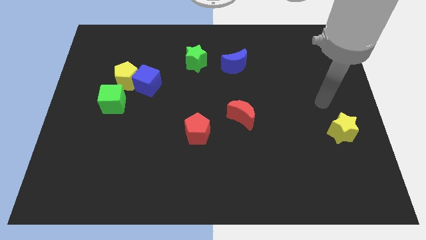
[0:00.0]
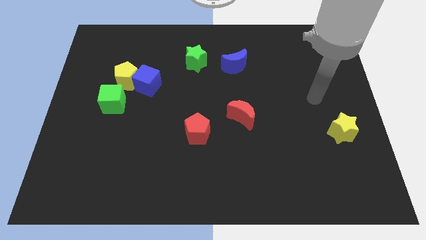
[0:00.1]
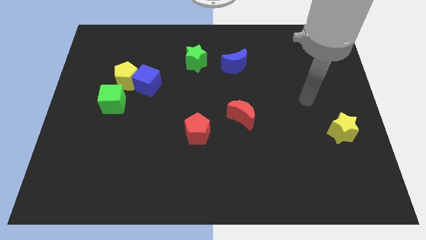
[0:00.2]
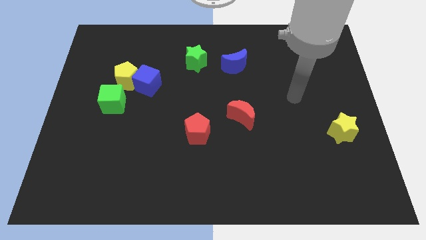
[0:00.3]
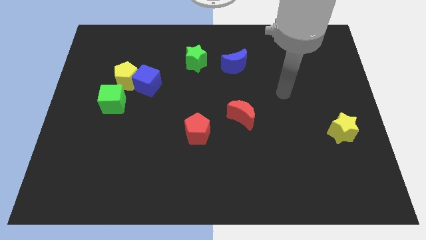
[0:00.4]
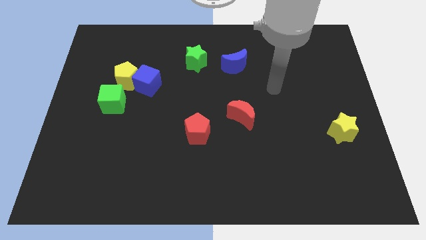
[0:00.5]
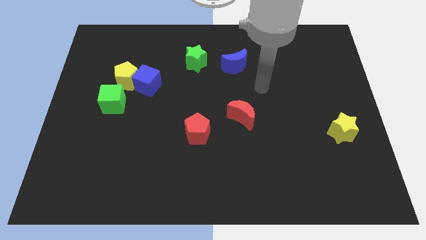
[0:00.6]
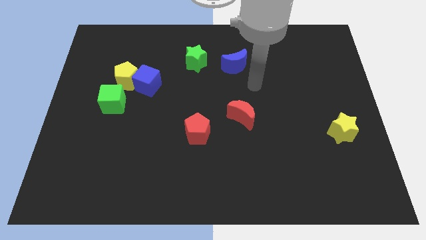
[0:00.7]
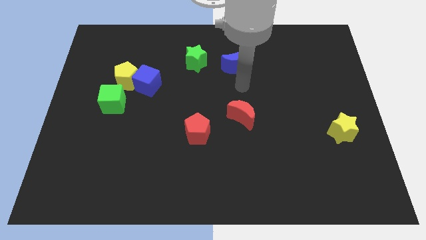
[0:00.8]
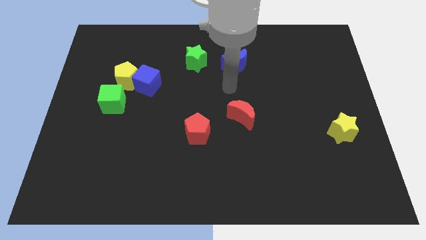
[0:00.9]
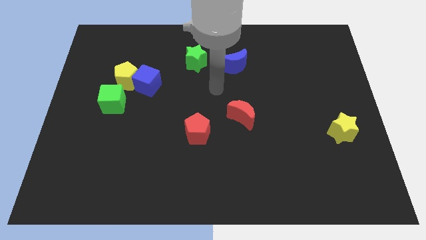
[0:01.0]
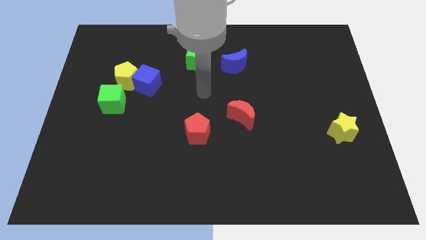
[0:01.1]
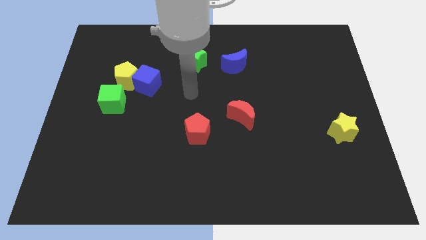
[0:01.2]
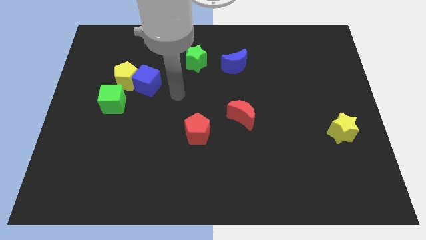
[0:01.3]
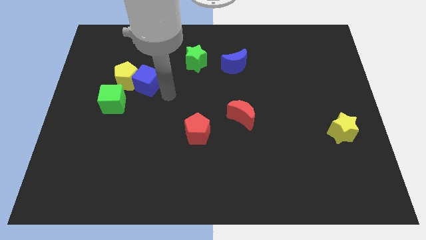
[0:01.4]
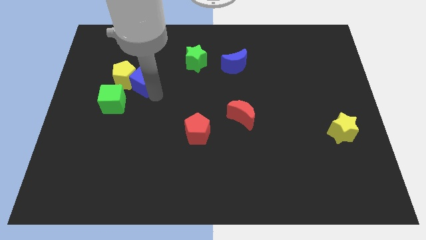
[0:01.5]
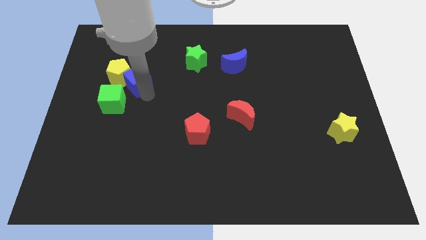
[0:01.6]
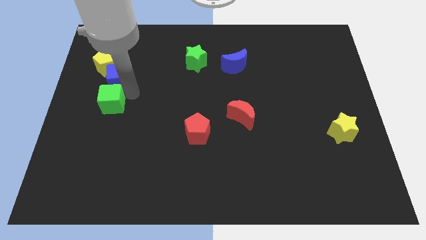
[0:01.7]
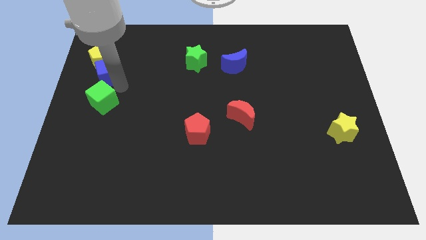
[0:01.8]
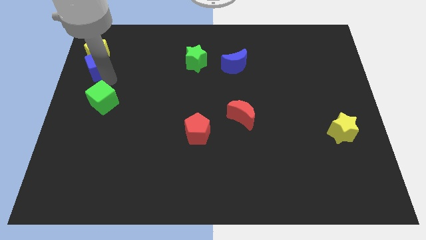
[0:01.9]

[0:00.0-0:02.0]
move the yellow pentagon away from the blue cube and green cube

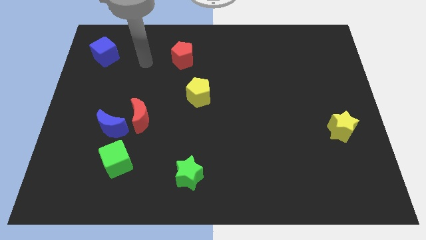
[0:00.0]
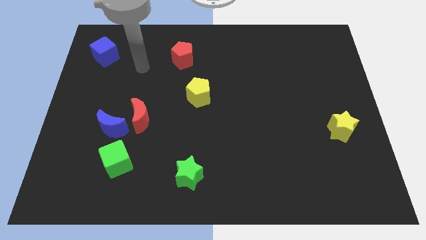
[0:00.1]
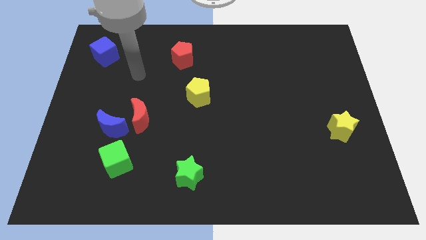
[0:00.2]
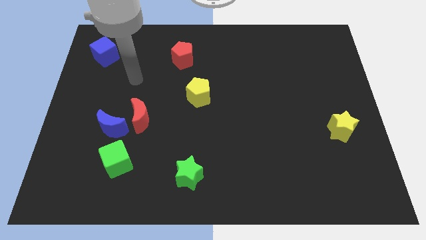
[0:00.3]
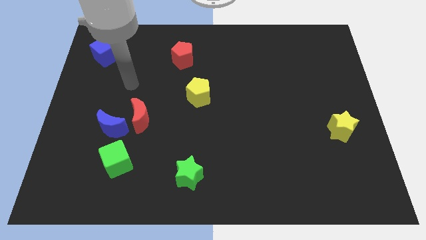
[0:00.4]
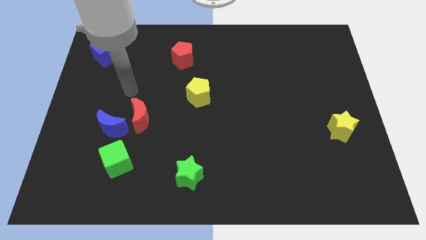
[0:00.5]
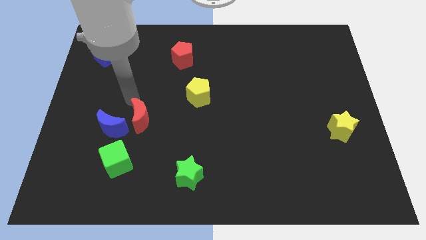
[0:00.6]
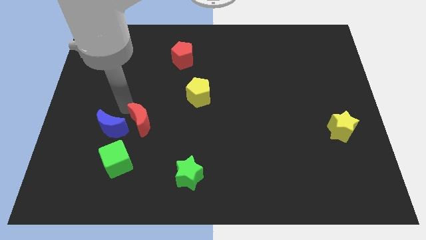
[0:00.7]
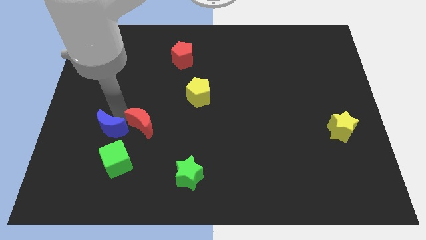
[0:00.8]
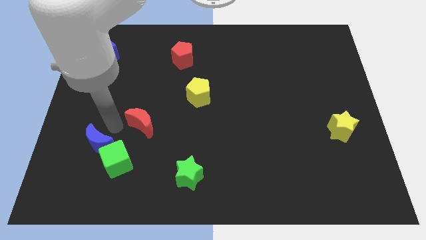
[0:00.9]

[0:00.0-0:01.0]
separate the red moon from the blue moon

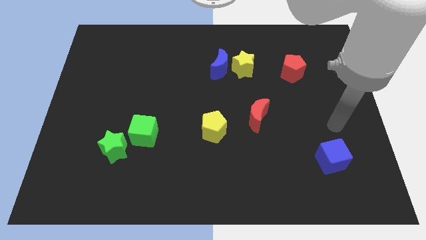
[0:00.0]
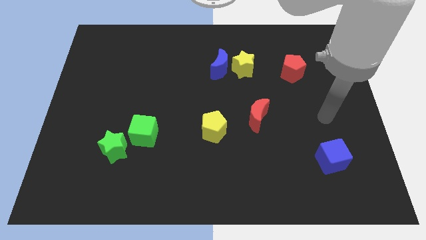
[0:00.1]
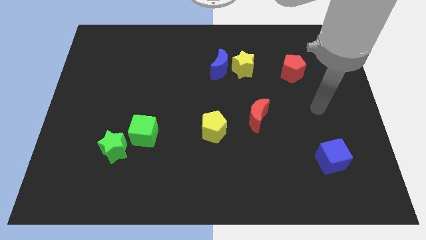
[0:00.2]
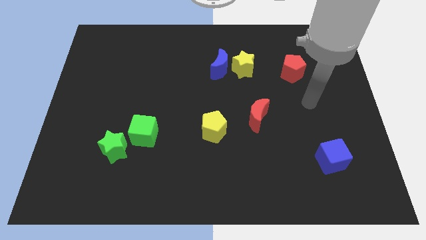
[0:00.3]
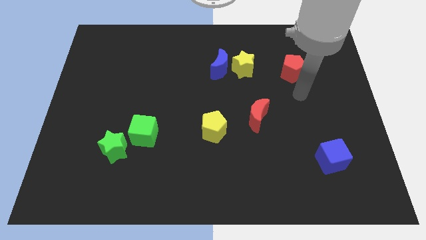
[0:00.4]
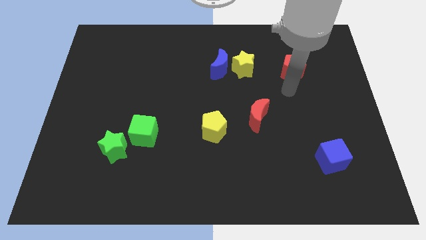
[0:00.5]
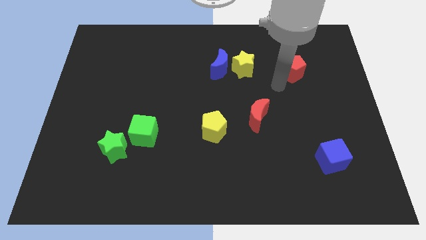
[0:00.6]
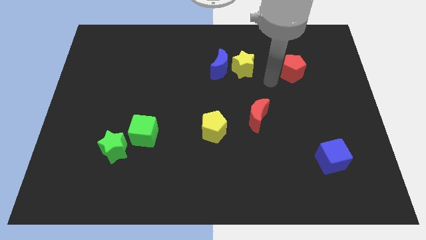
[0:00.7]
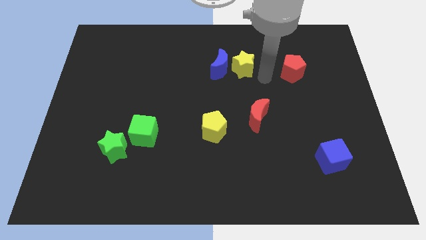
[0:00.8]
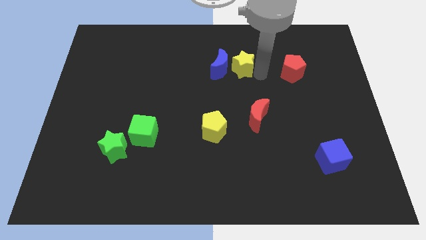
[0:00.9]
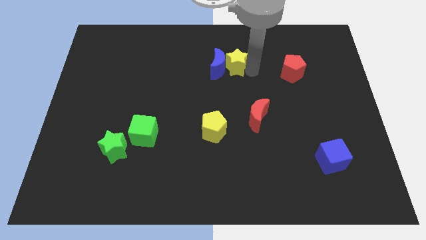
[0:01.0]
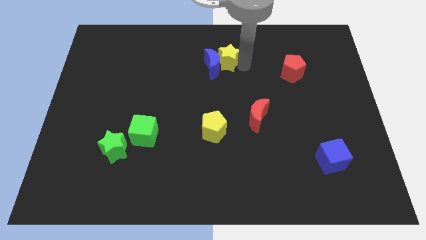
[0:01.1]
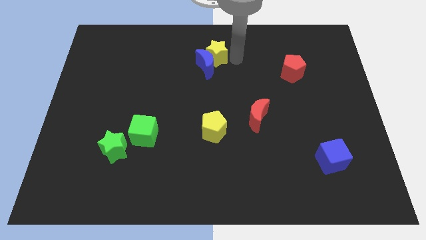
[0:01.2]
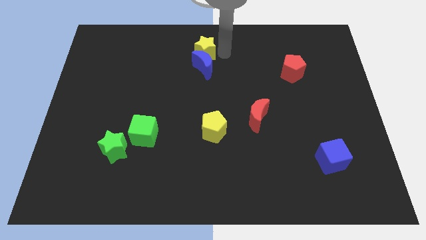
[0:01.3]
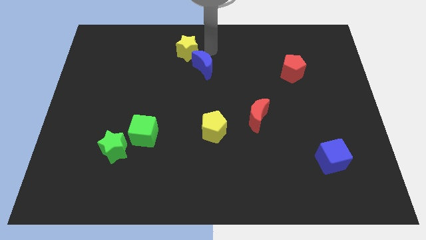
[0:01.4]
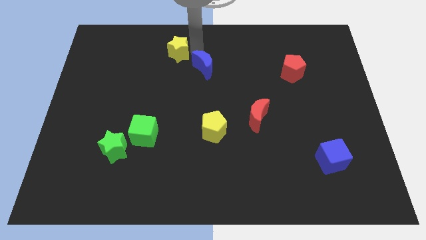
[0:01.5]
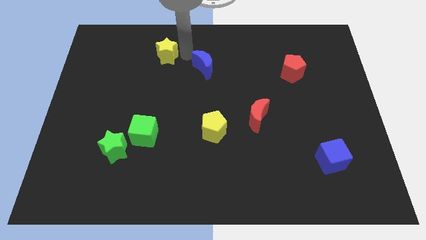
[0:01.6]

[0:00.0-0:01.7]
move the blue moon away from the yellow star

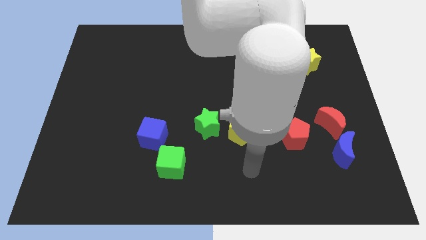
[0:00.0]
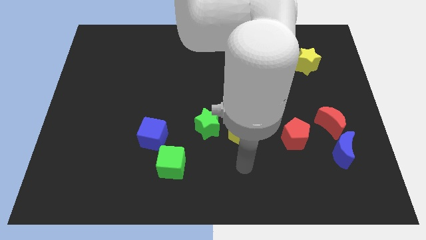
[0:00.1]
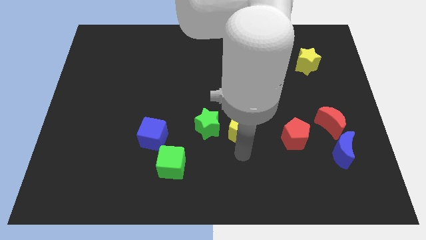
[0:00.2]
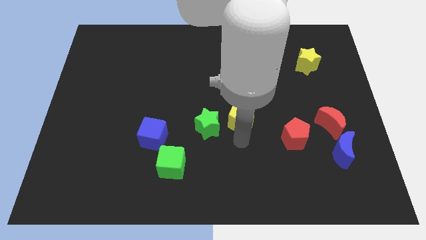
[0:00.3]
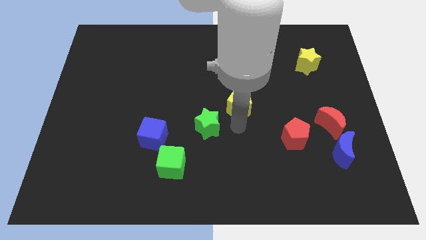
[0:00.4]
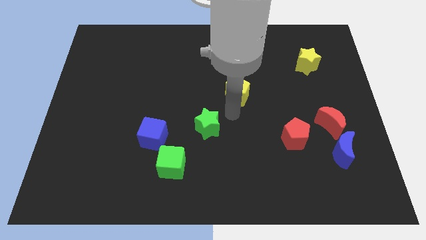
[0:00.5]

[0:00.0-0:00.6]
pull the green star apart from the yellow pentagon

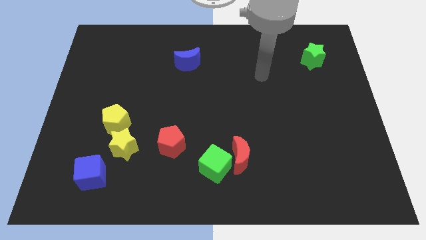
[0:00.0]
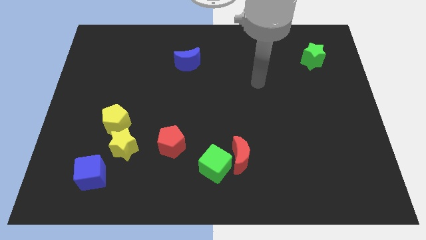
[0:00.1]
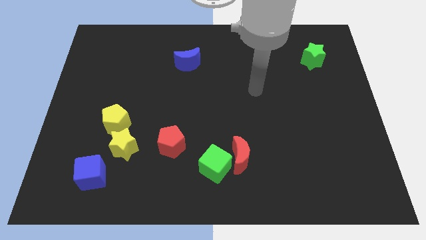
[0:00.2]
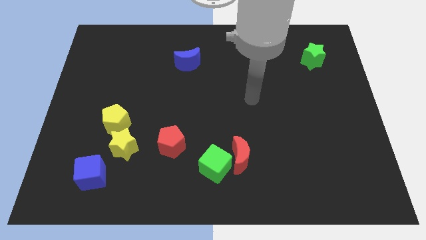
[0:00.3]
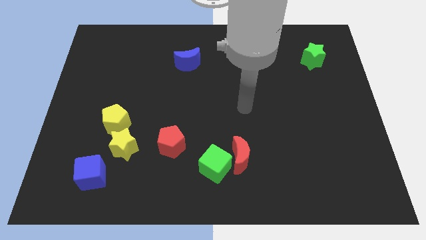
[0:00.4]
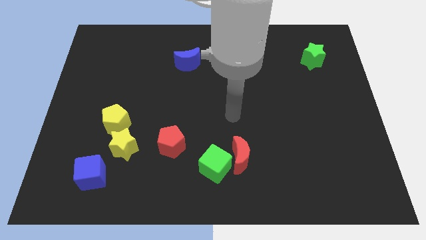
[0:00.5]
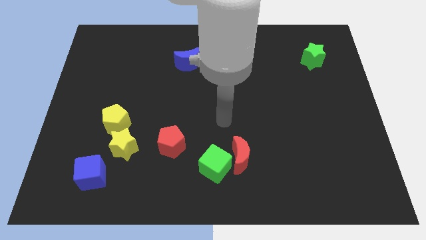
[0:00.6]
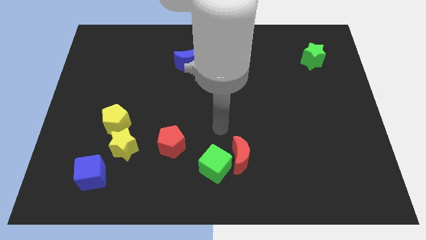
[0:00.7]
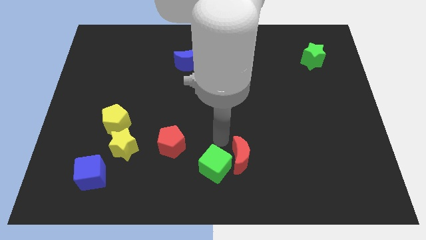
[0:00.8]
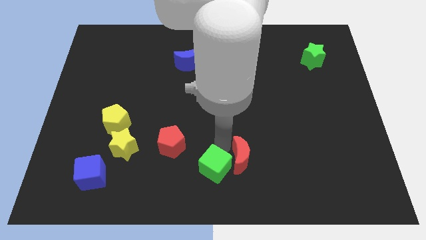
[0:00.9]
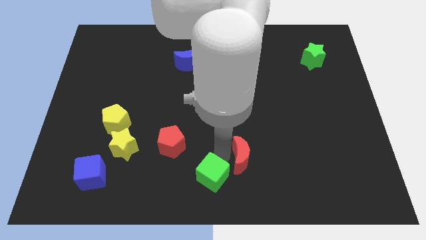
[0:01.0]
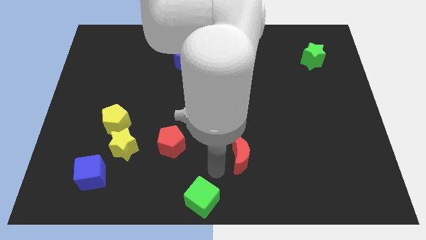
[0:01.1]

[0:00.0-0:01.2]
pull the red moon apart from the green cube

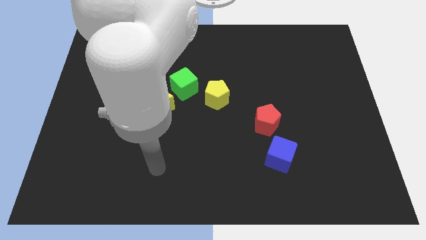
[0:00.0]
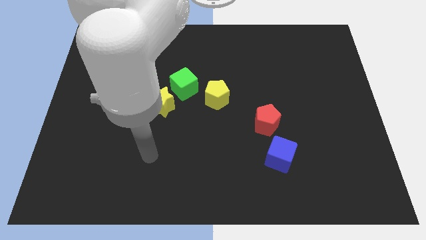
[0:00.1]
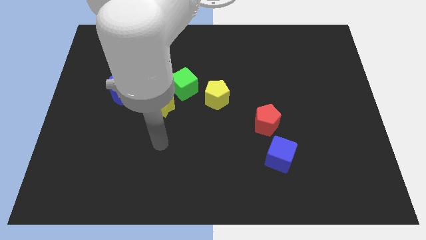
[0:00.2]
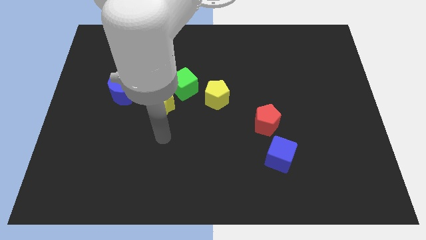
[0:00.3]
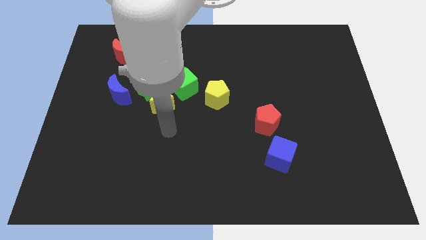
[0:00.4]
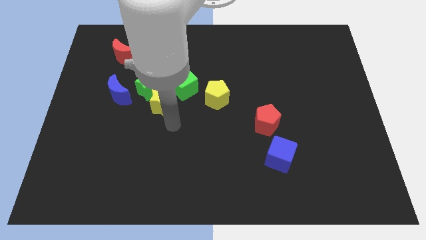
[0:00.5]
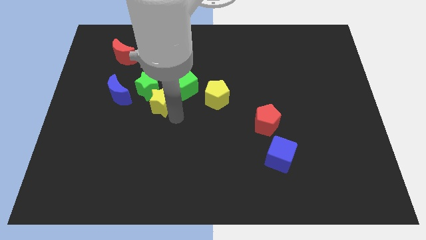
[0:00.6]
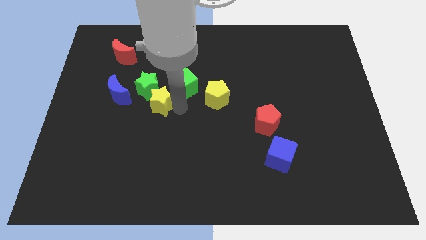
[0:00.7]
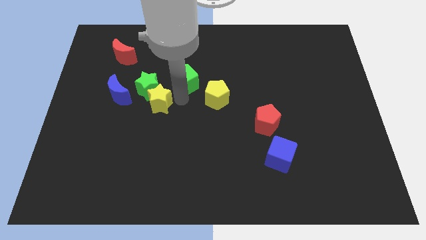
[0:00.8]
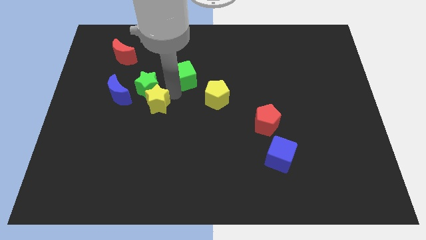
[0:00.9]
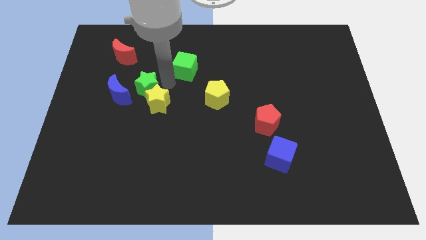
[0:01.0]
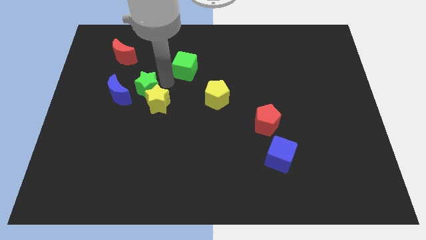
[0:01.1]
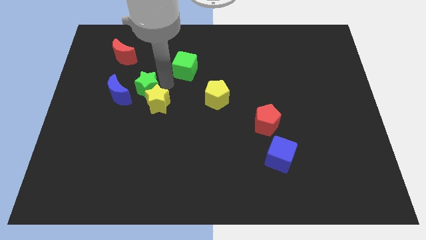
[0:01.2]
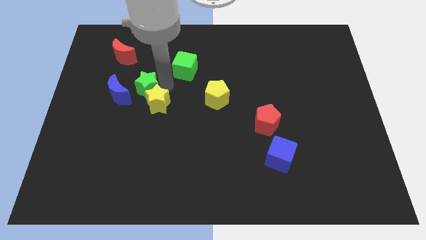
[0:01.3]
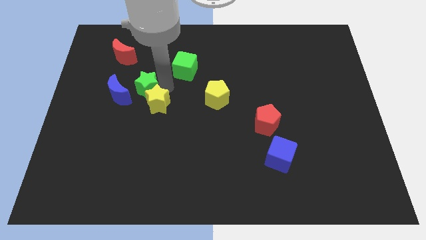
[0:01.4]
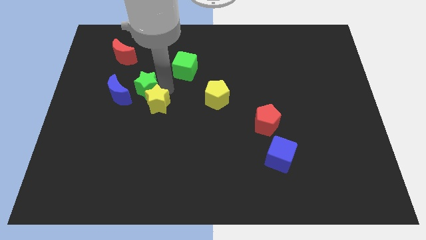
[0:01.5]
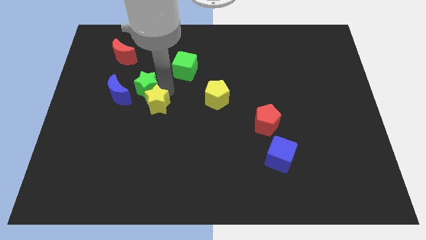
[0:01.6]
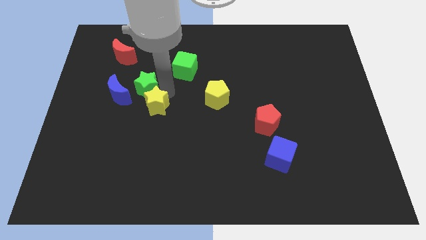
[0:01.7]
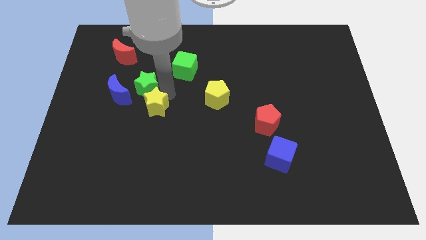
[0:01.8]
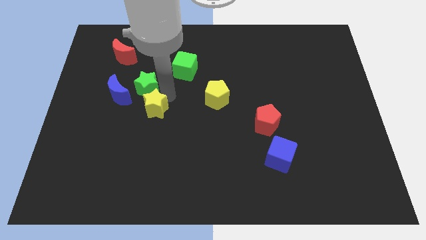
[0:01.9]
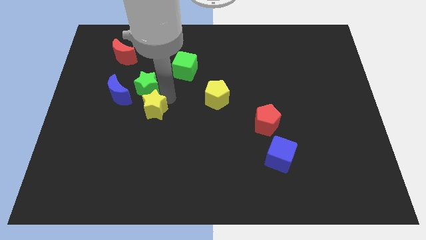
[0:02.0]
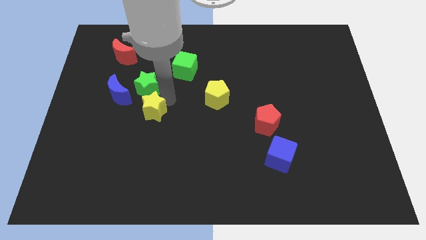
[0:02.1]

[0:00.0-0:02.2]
move the yellow star away from the green star and green cube

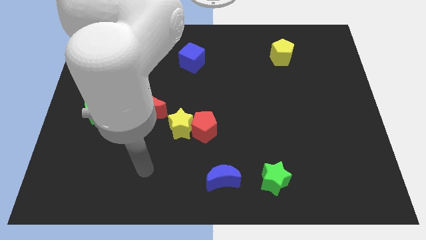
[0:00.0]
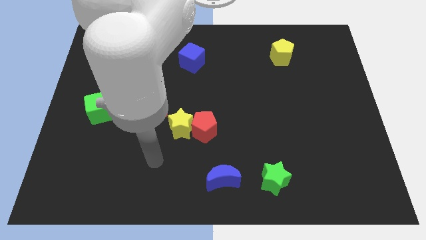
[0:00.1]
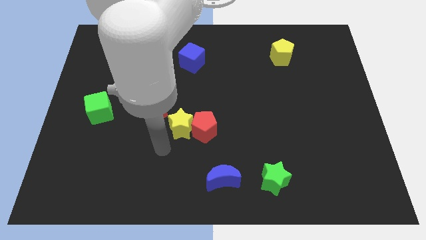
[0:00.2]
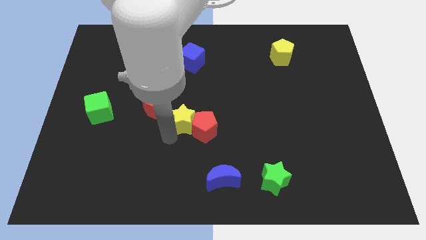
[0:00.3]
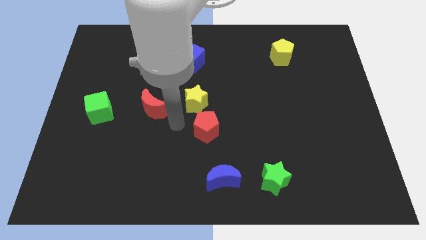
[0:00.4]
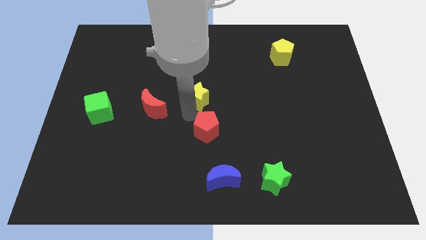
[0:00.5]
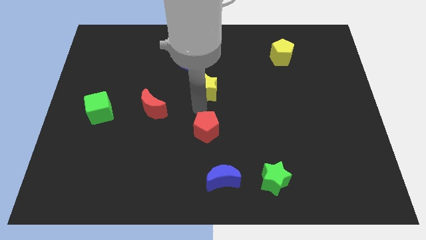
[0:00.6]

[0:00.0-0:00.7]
separate the red pentagon from the yellow star
